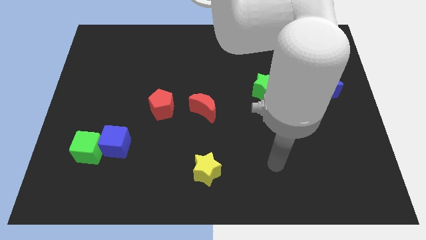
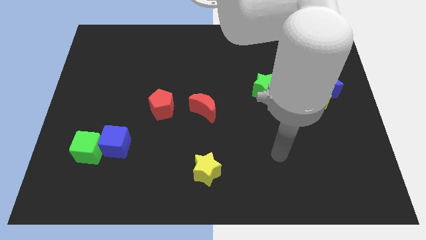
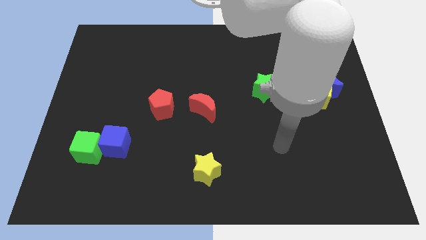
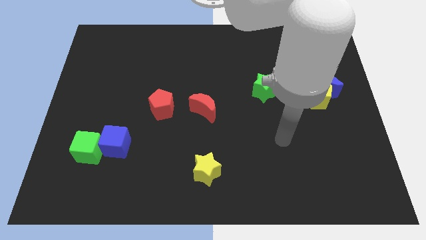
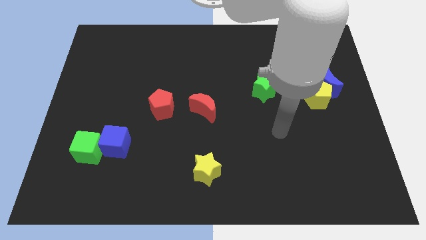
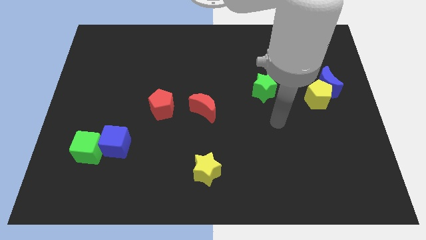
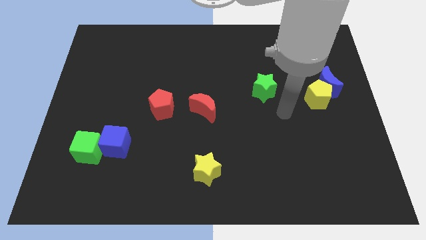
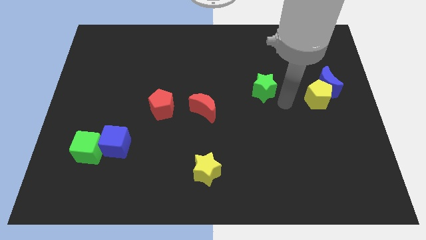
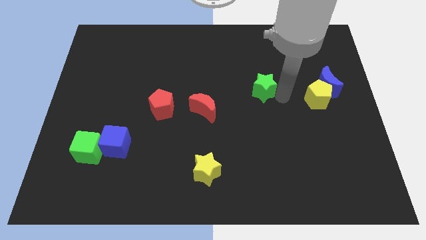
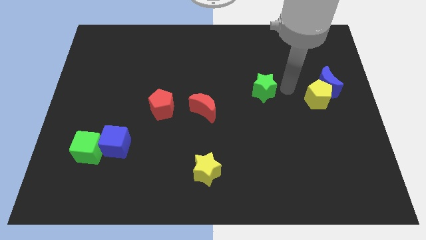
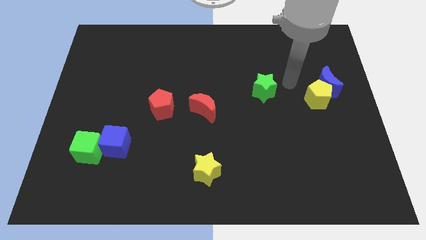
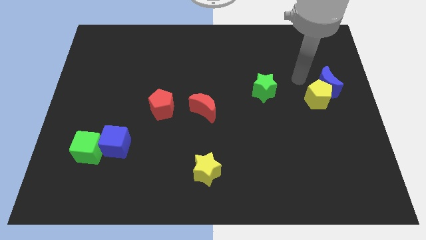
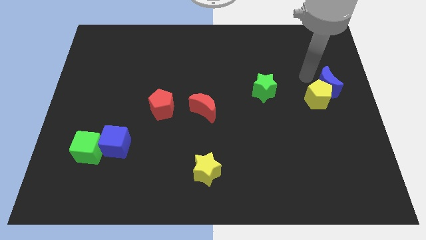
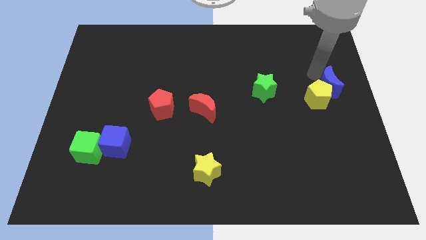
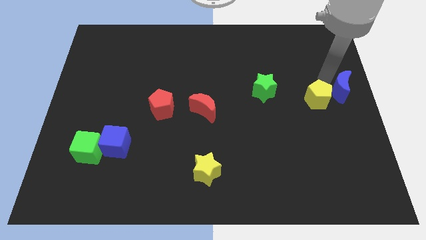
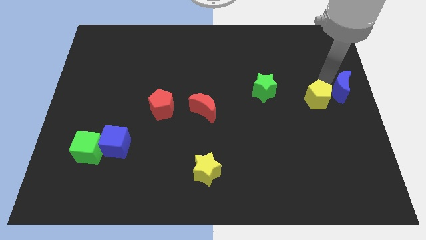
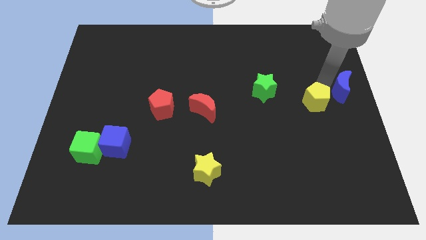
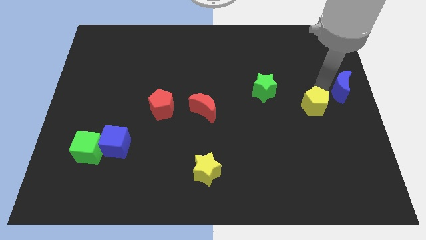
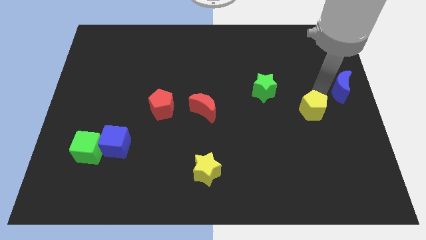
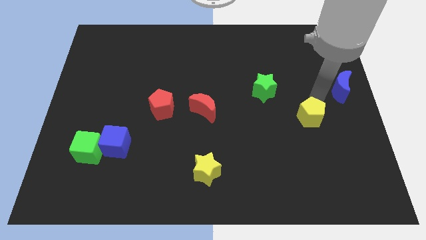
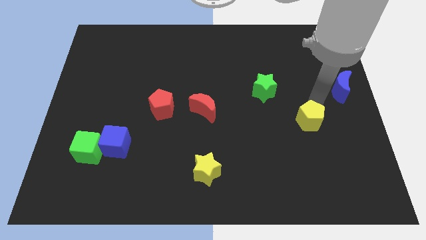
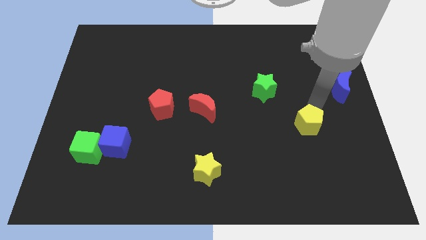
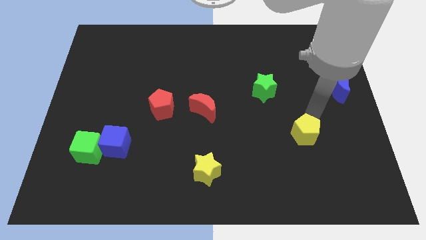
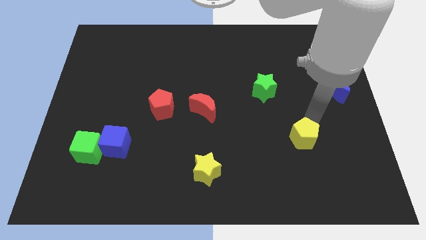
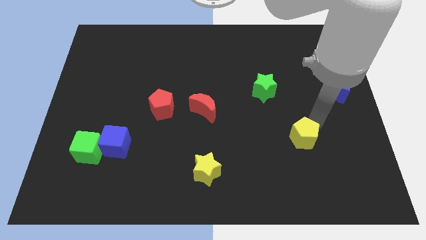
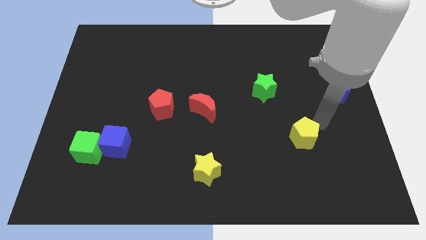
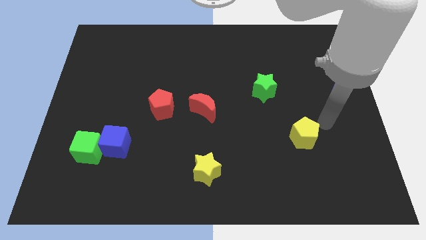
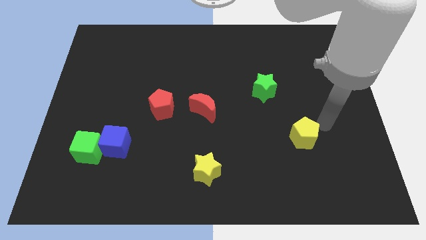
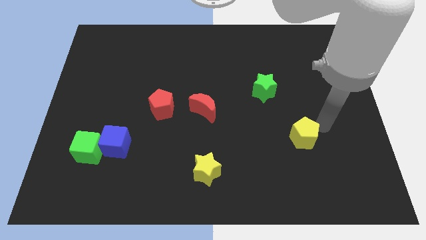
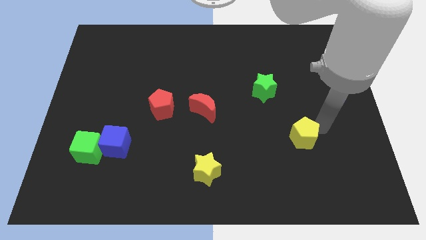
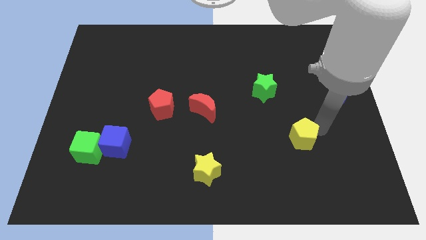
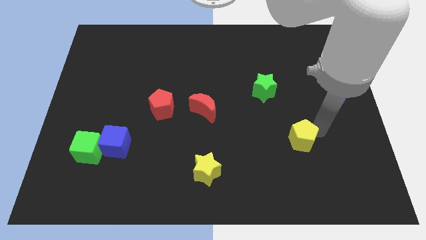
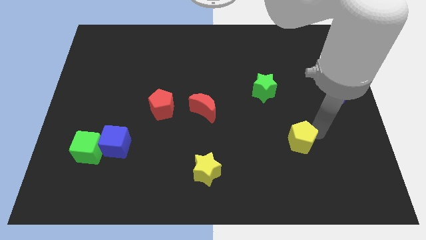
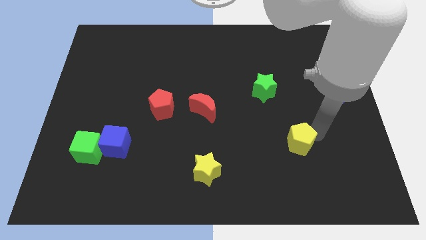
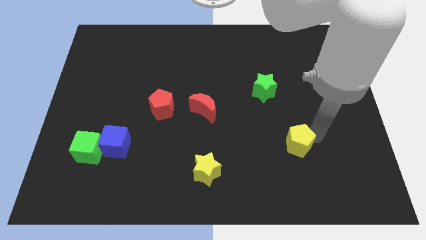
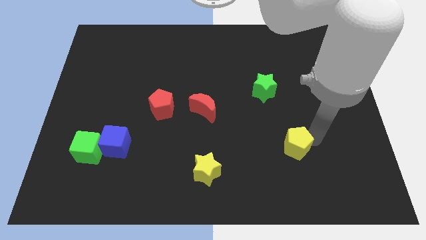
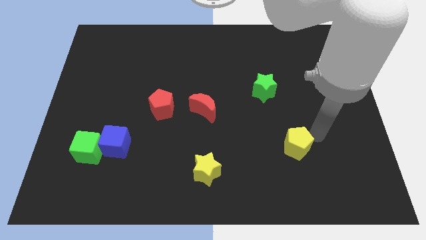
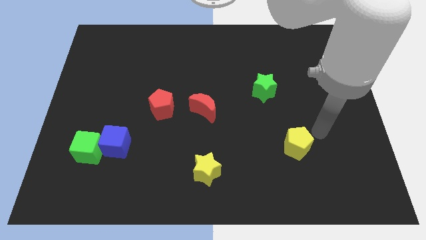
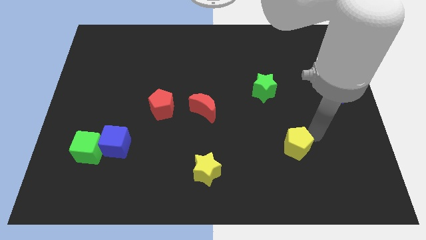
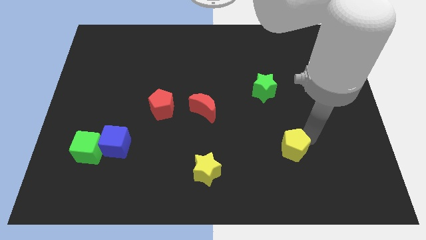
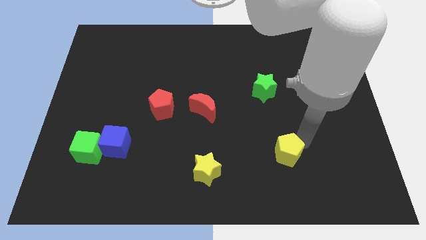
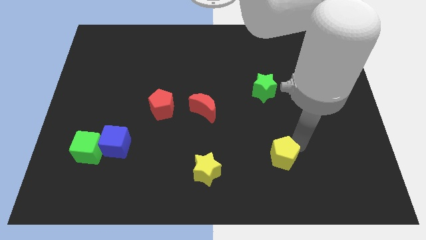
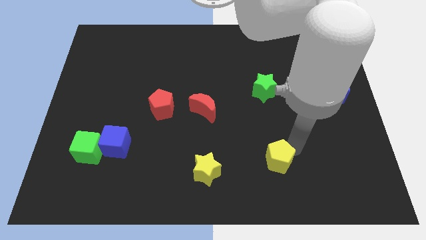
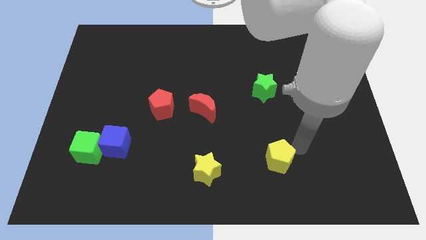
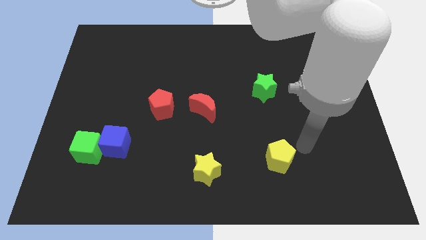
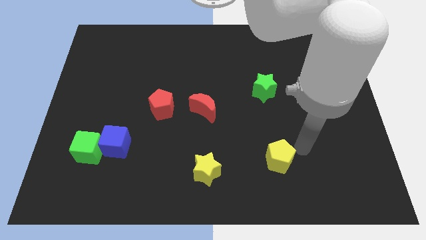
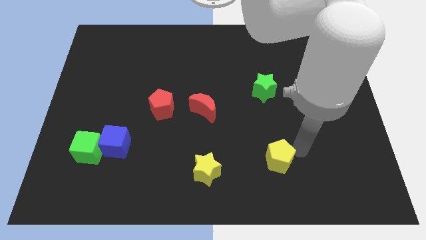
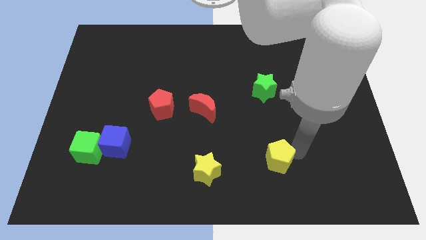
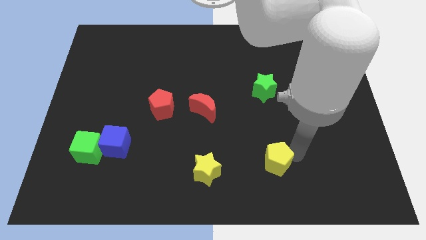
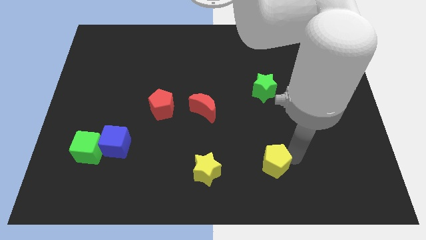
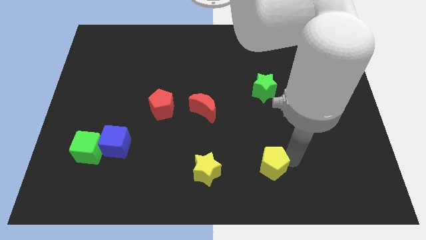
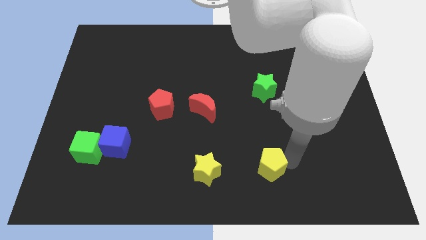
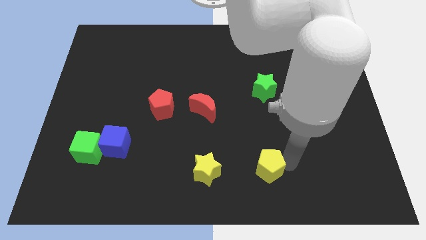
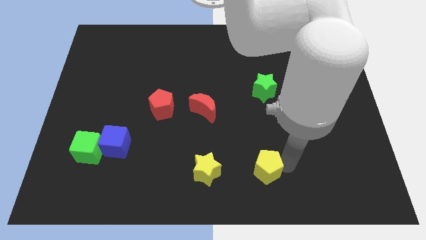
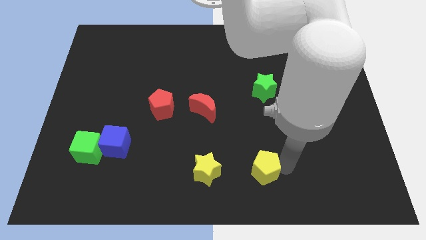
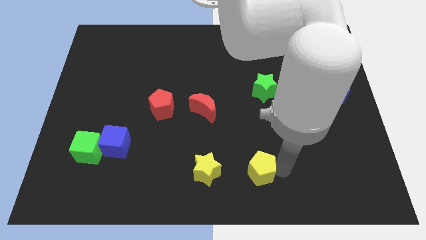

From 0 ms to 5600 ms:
push the yellow pentagon to the bottom

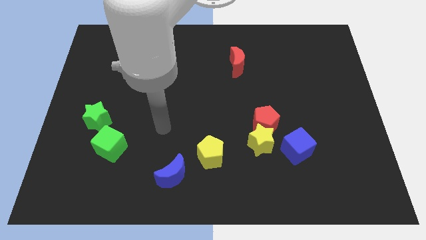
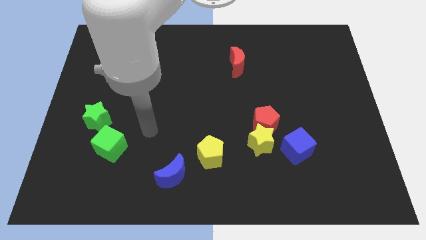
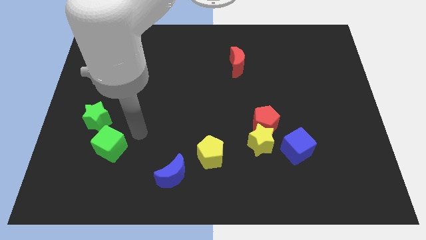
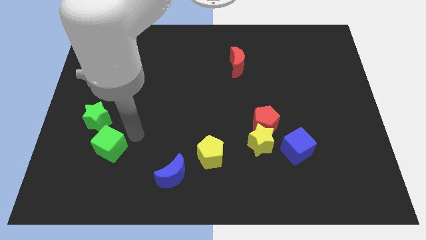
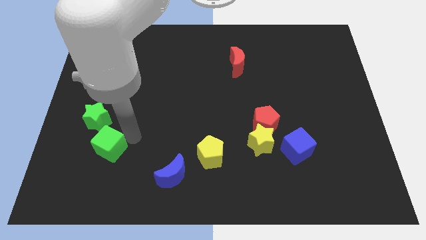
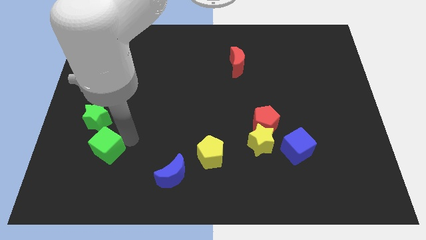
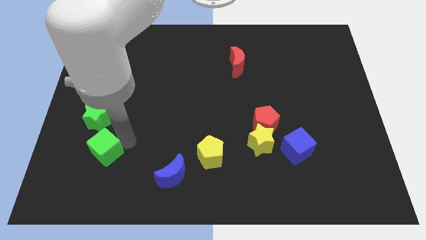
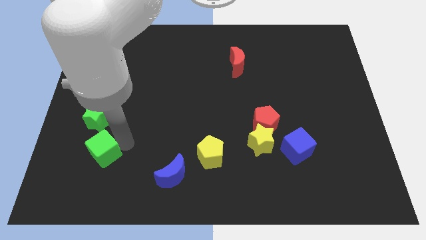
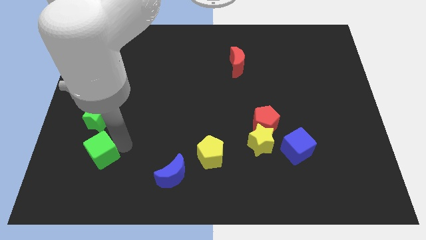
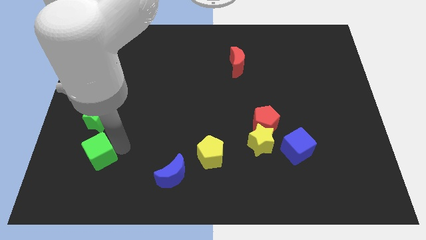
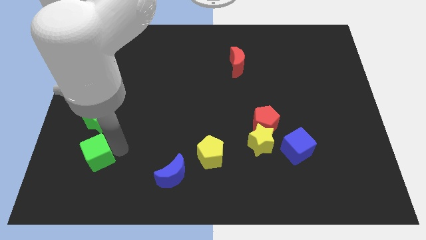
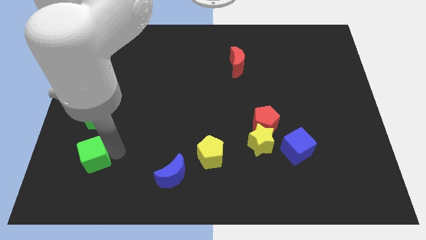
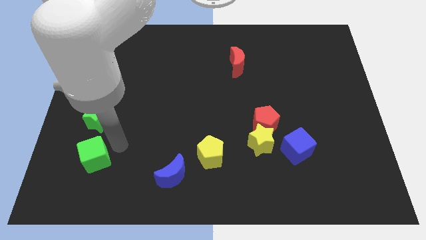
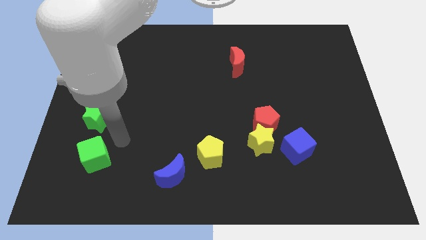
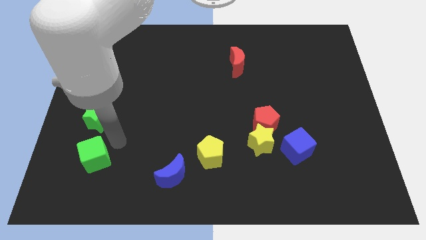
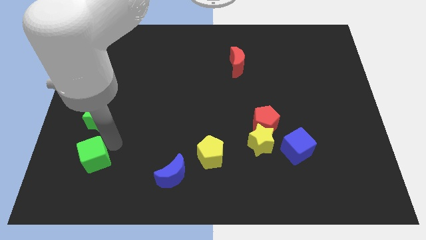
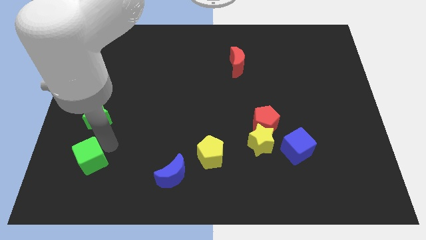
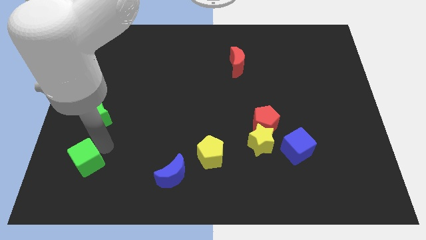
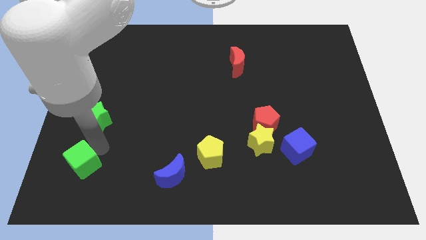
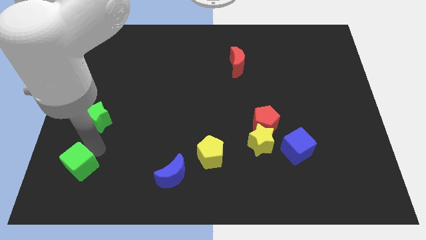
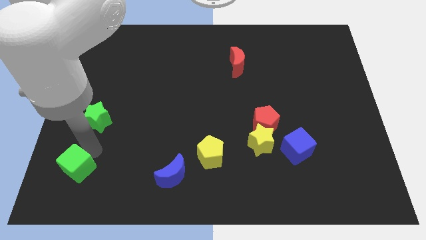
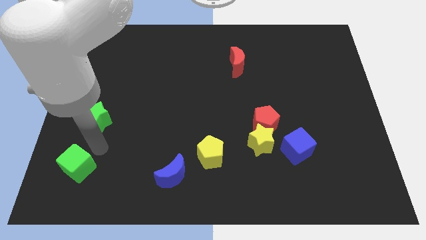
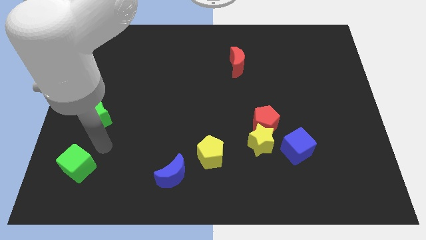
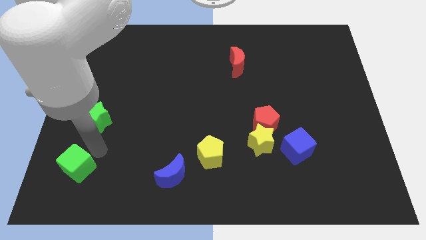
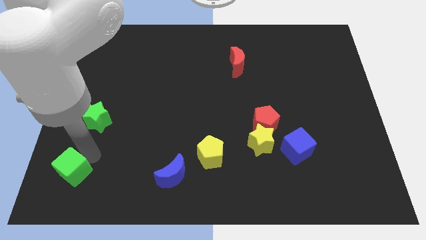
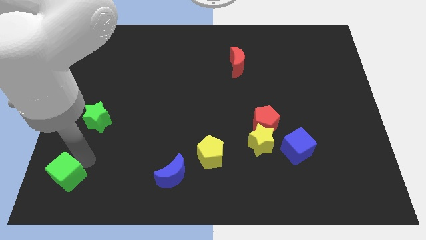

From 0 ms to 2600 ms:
put the green cube to the bottom left corner
